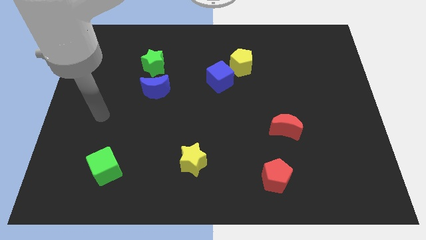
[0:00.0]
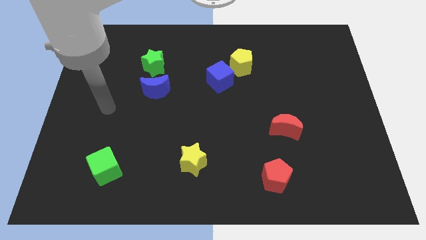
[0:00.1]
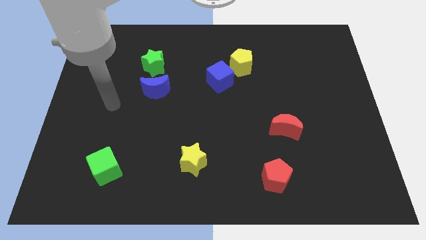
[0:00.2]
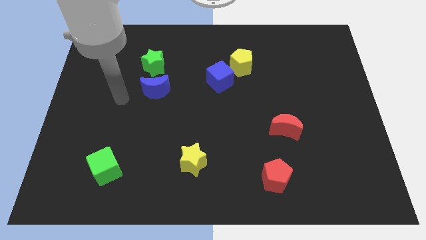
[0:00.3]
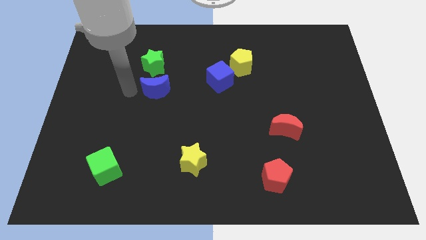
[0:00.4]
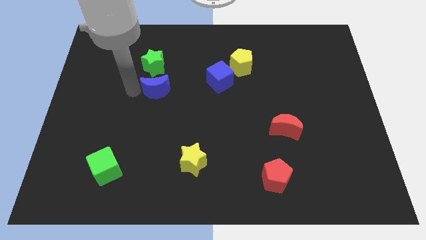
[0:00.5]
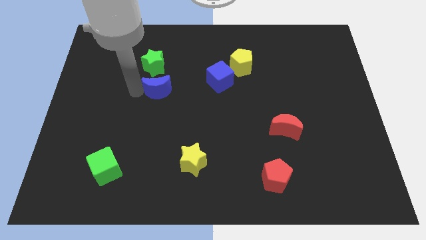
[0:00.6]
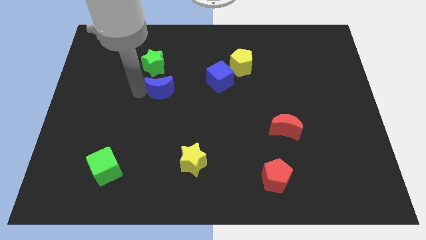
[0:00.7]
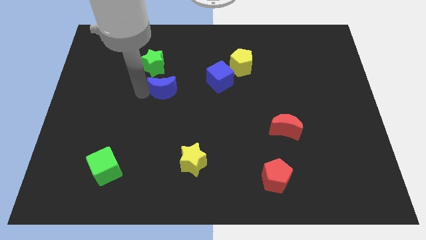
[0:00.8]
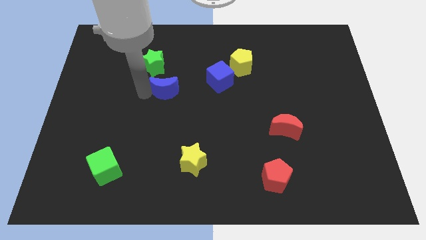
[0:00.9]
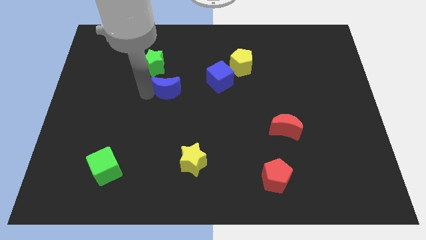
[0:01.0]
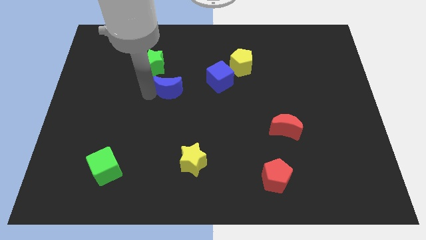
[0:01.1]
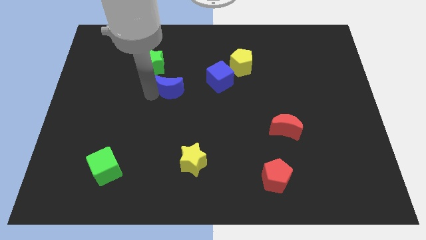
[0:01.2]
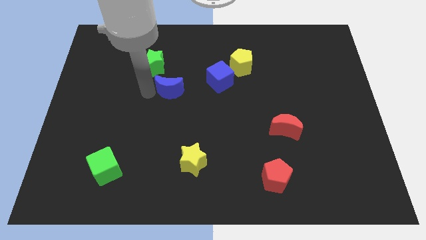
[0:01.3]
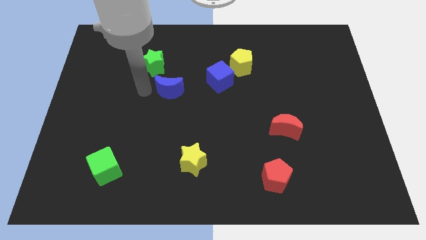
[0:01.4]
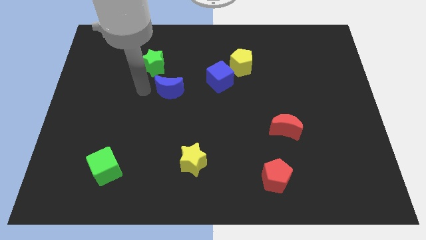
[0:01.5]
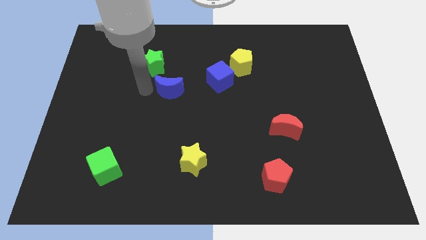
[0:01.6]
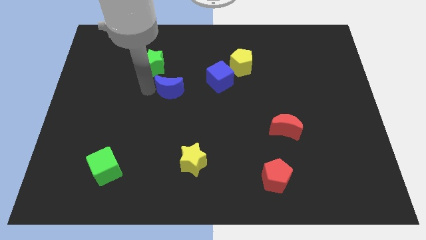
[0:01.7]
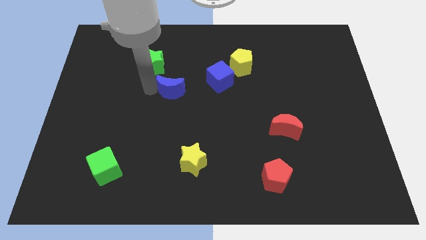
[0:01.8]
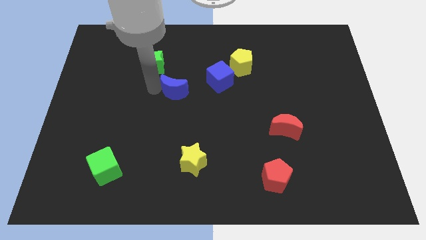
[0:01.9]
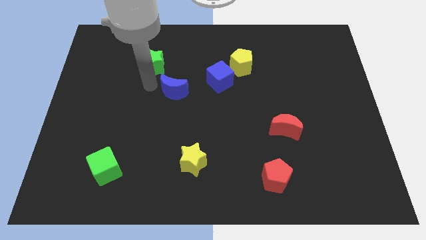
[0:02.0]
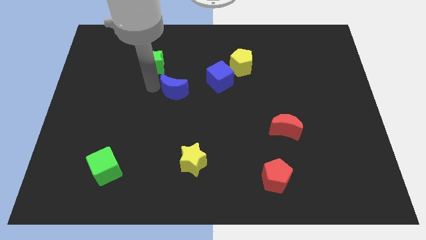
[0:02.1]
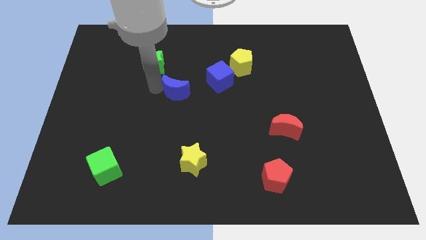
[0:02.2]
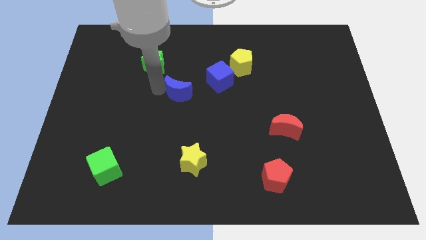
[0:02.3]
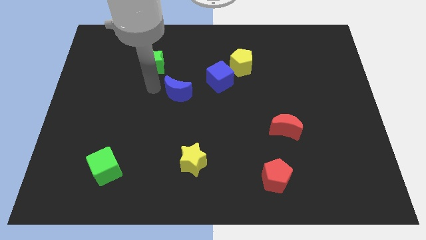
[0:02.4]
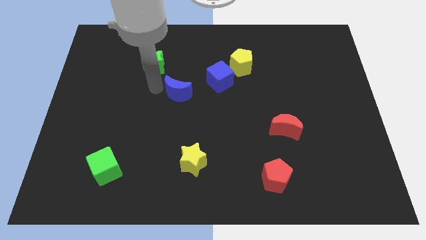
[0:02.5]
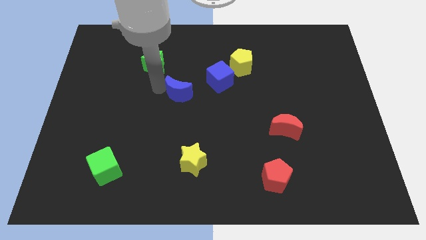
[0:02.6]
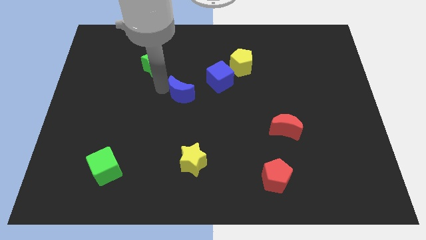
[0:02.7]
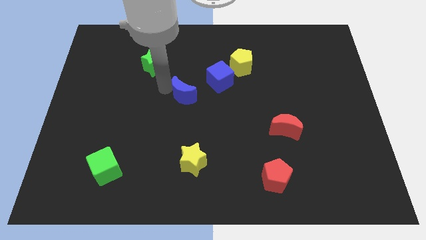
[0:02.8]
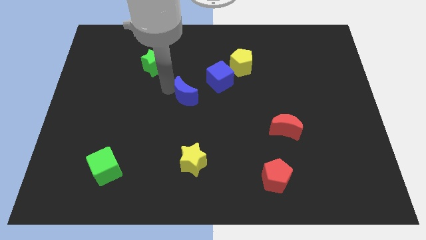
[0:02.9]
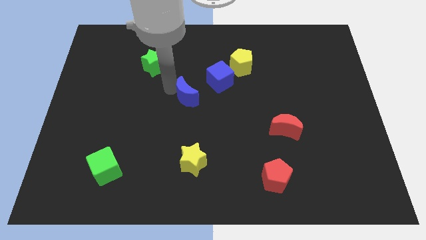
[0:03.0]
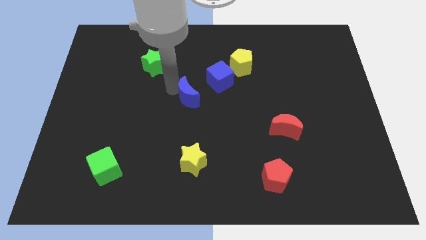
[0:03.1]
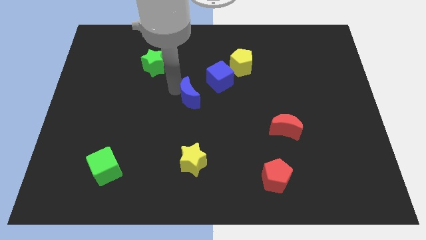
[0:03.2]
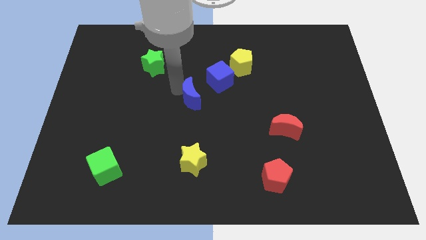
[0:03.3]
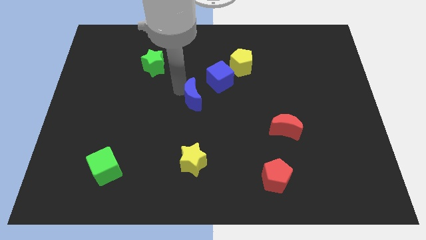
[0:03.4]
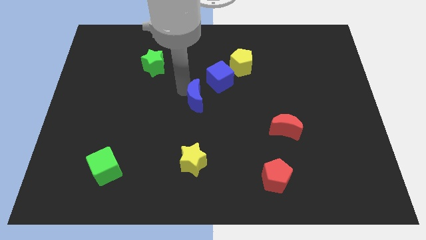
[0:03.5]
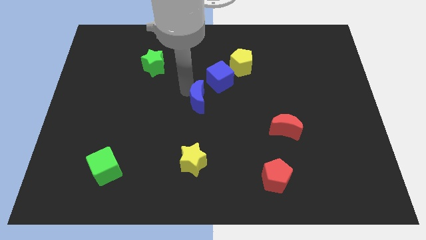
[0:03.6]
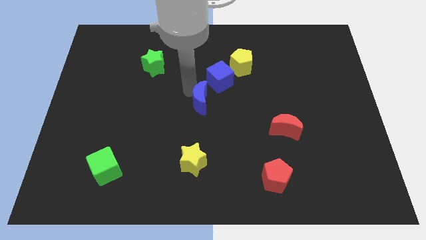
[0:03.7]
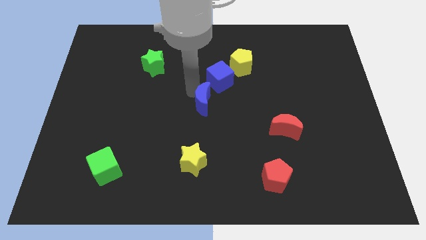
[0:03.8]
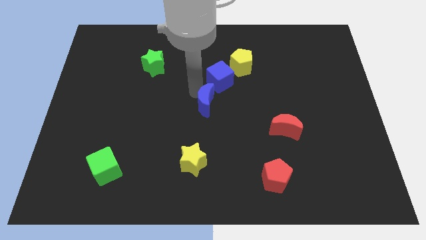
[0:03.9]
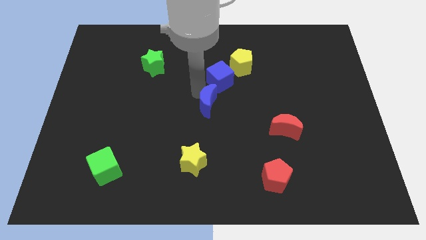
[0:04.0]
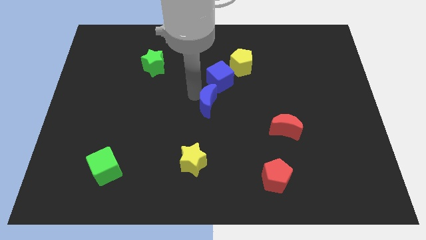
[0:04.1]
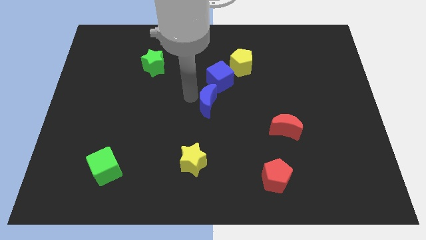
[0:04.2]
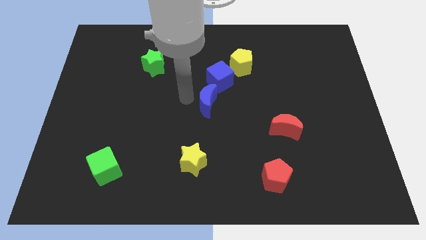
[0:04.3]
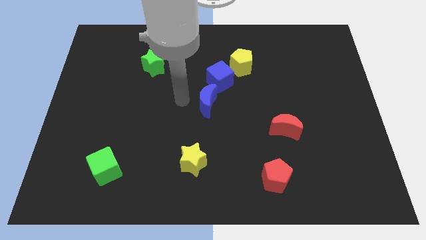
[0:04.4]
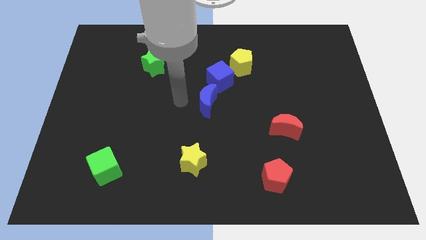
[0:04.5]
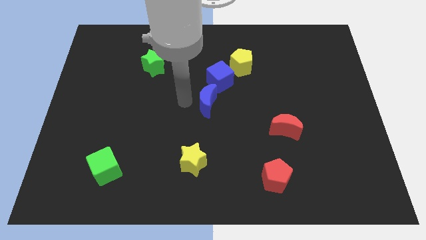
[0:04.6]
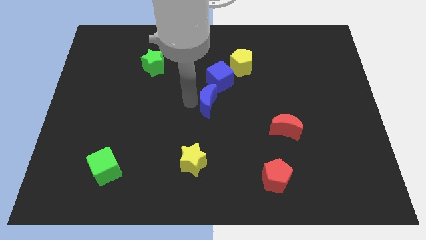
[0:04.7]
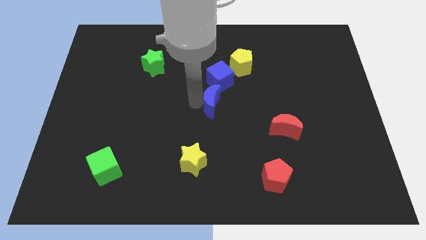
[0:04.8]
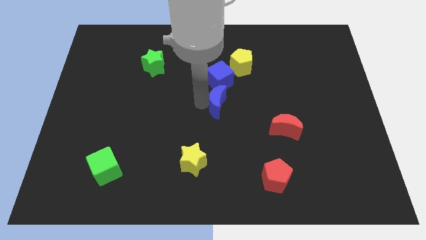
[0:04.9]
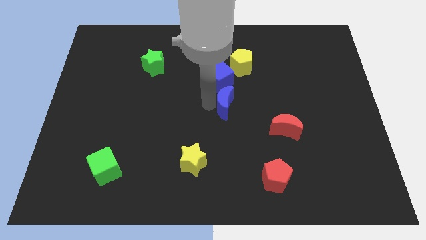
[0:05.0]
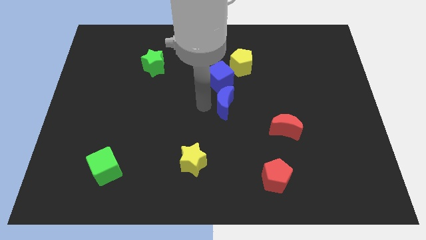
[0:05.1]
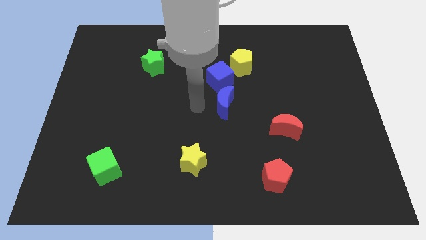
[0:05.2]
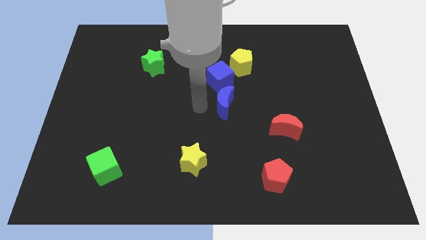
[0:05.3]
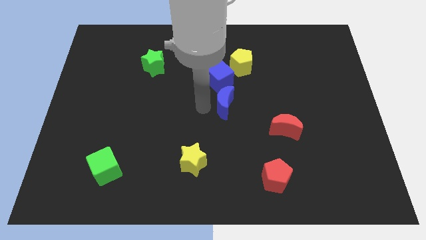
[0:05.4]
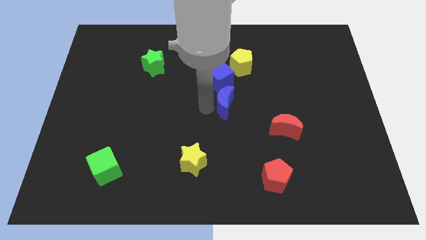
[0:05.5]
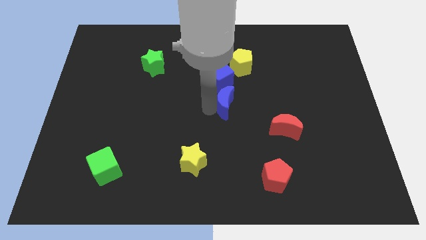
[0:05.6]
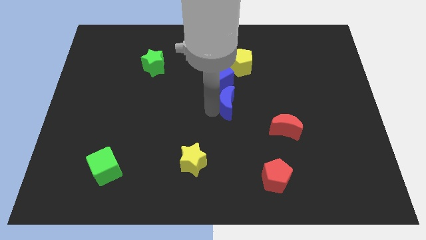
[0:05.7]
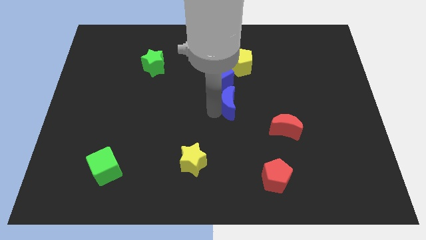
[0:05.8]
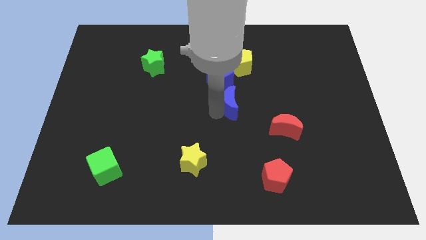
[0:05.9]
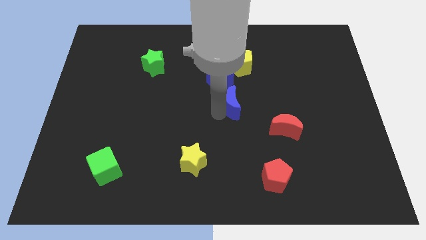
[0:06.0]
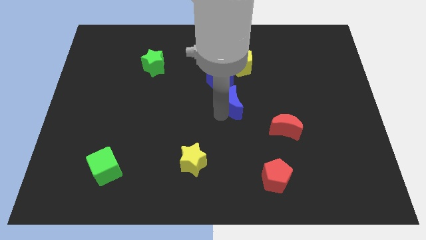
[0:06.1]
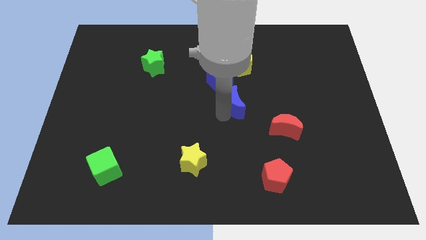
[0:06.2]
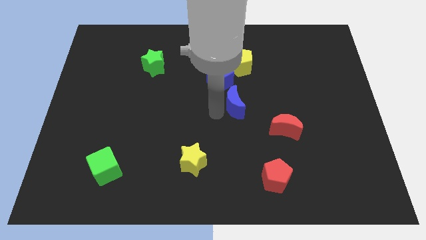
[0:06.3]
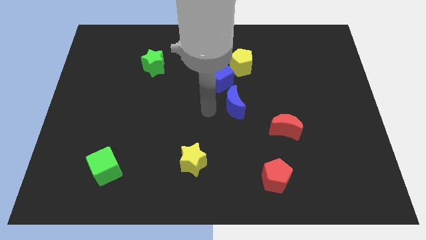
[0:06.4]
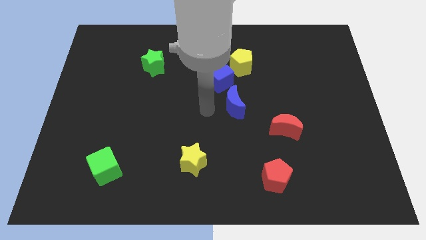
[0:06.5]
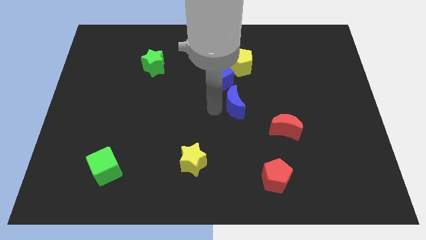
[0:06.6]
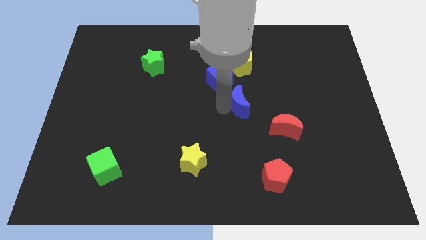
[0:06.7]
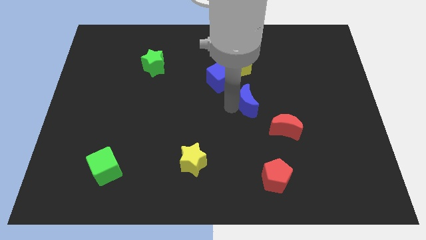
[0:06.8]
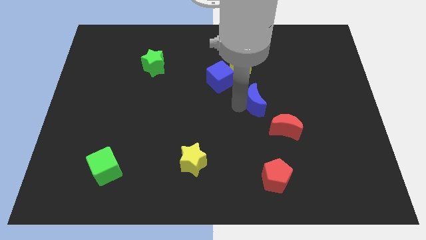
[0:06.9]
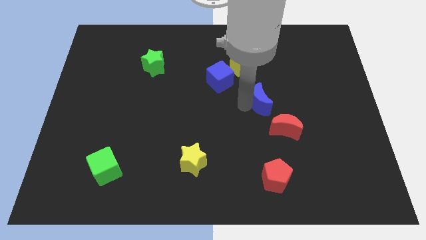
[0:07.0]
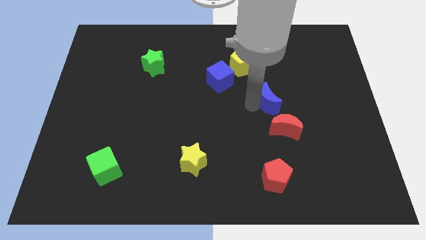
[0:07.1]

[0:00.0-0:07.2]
slide the blue moon above the red moon
